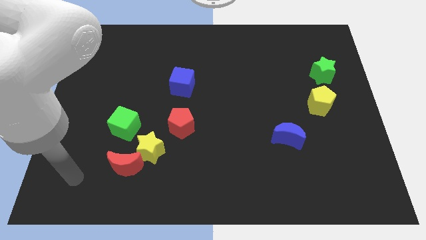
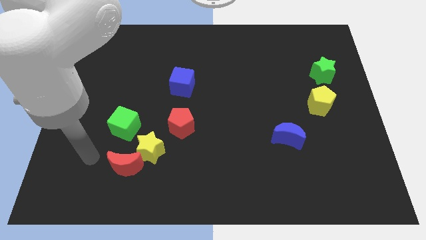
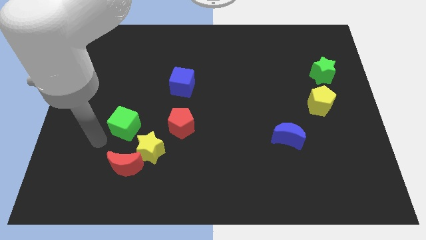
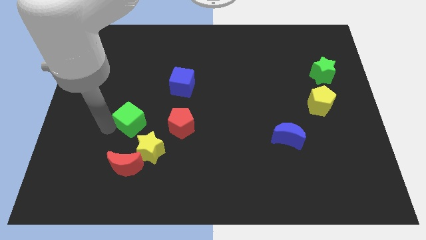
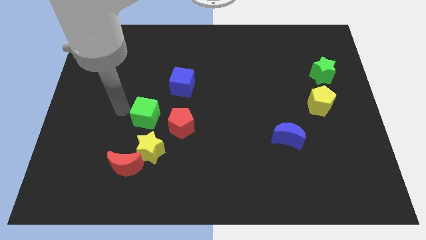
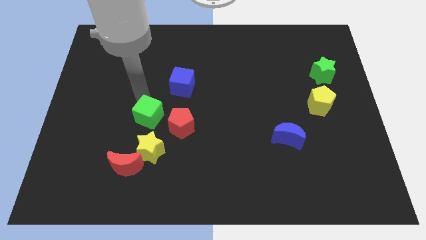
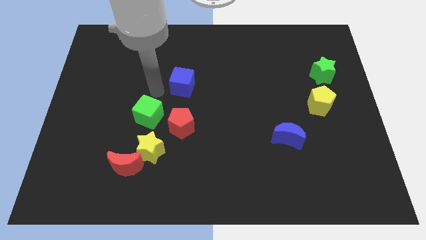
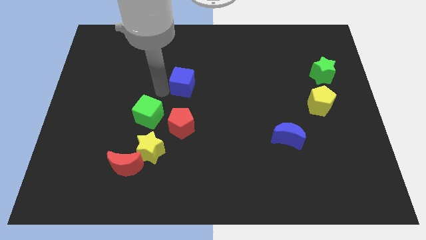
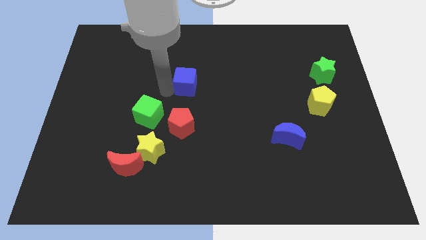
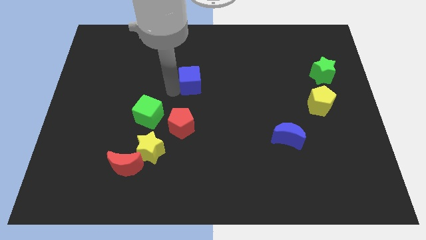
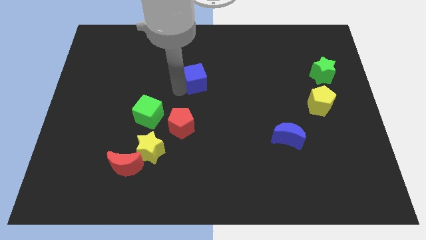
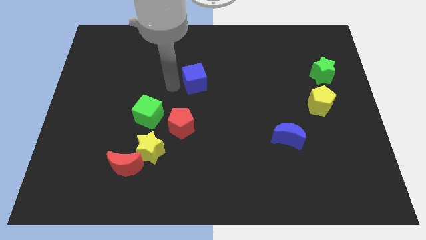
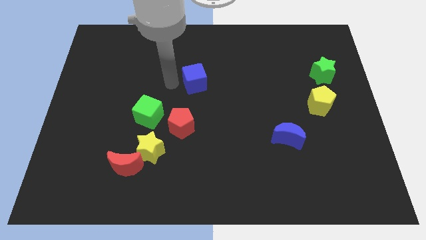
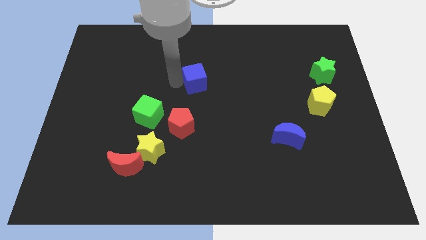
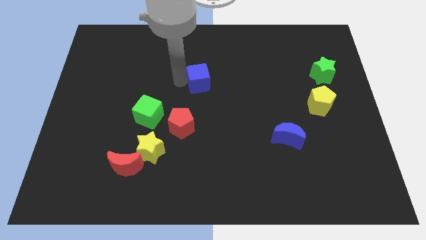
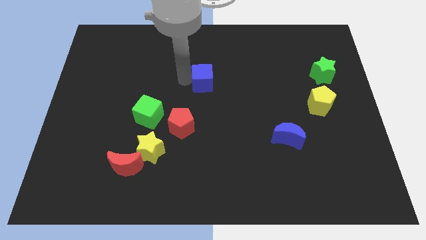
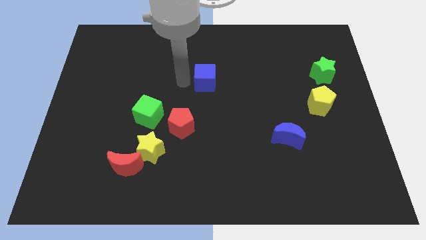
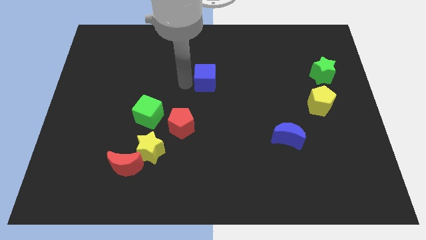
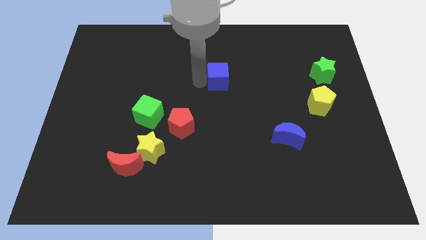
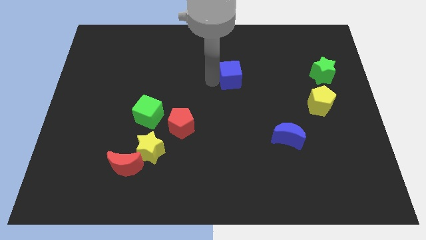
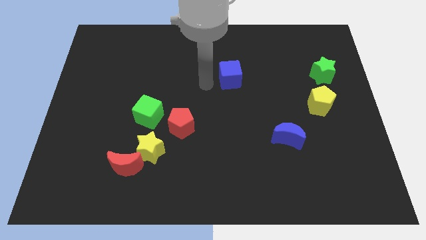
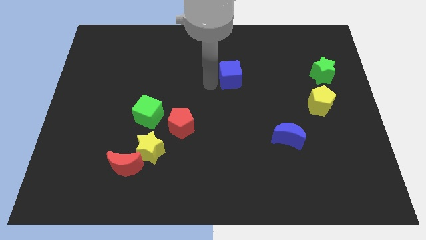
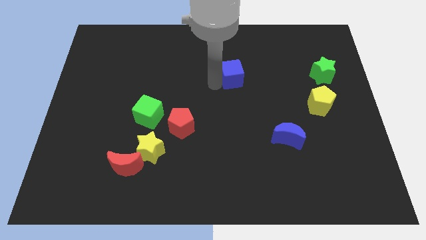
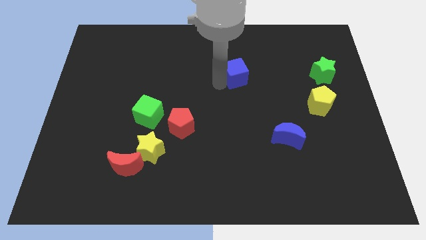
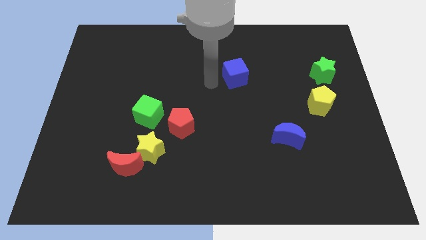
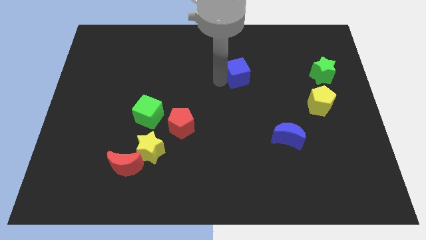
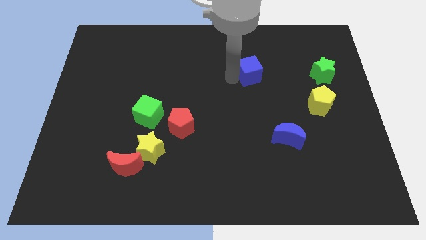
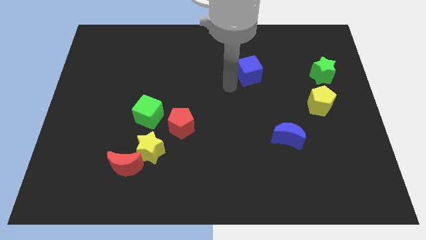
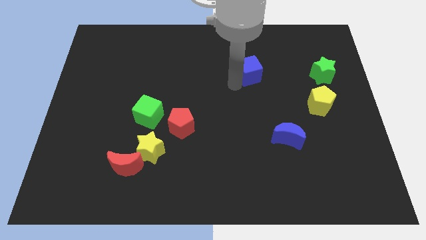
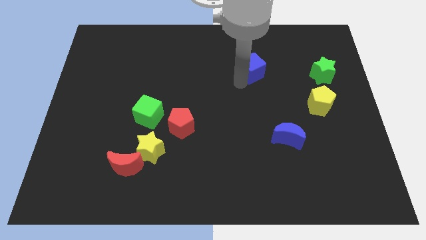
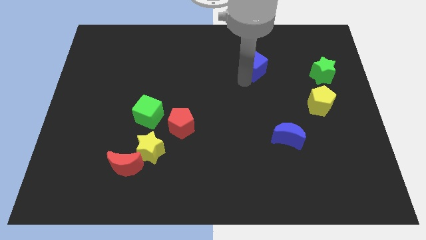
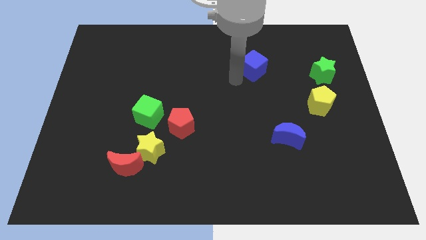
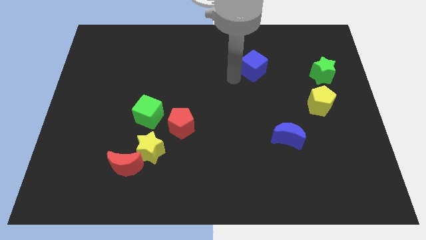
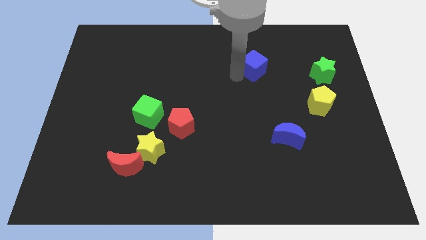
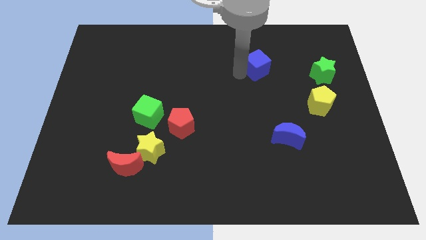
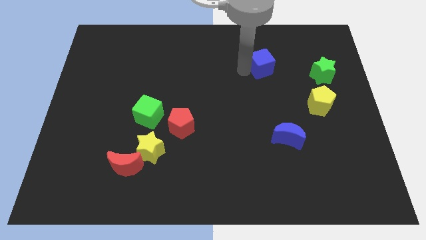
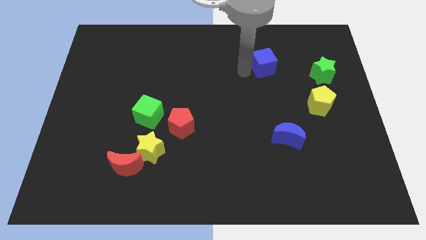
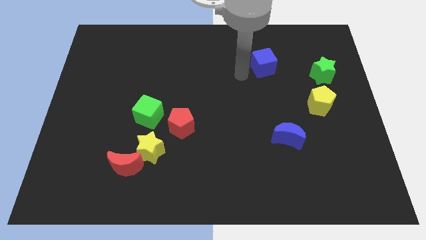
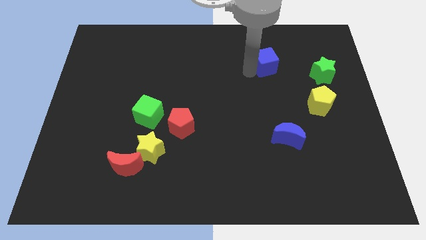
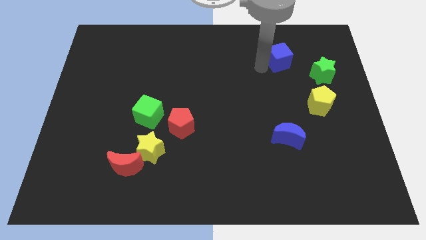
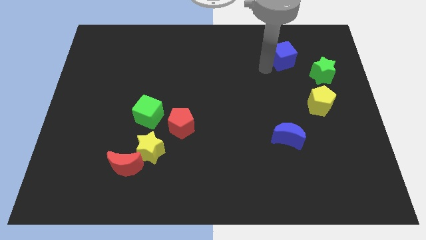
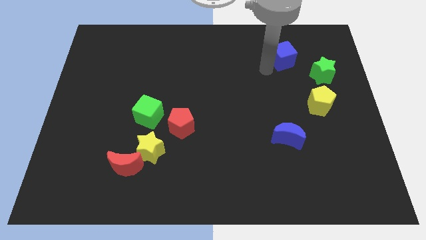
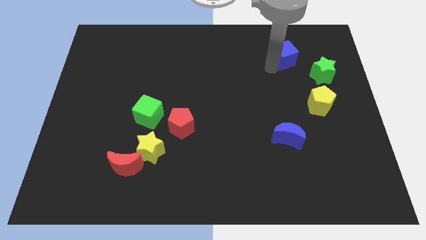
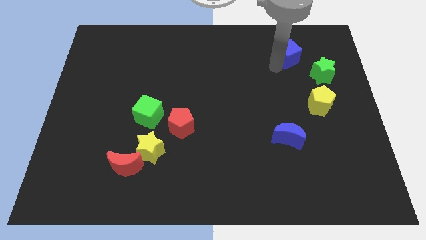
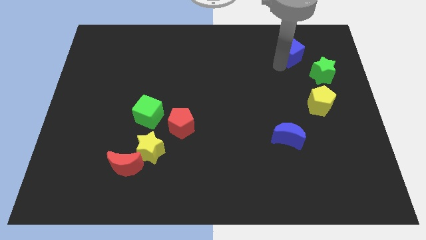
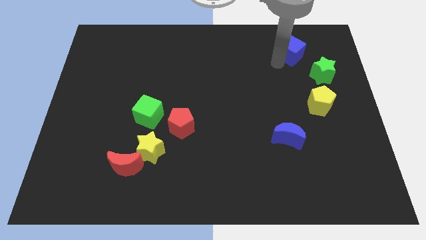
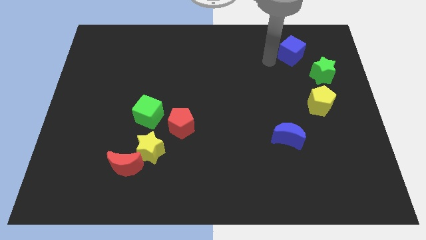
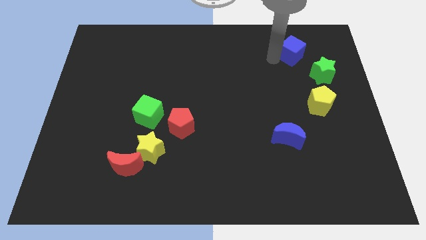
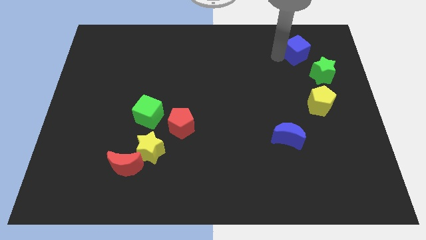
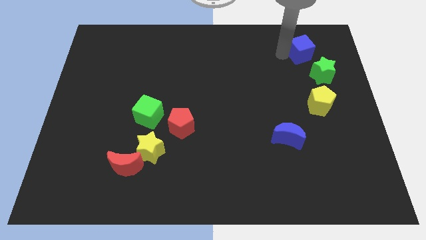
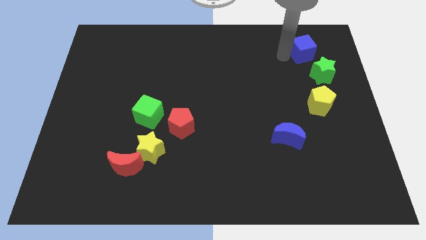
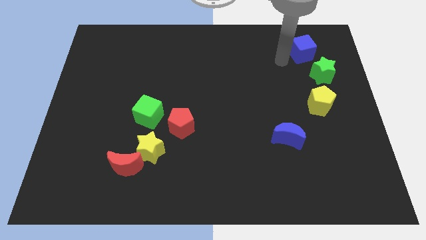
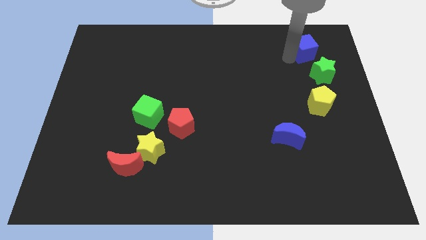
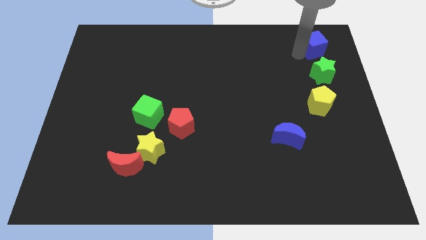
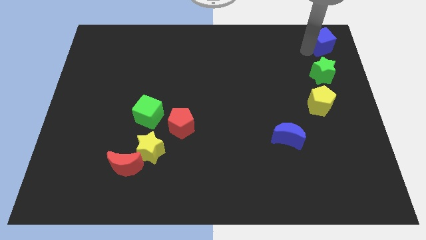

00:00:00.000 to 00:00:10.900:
move the blue cube to the top right corner

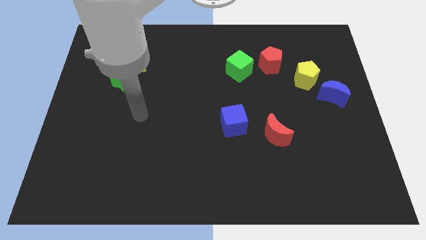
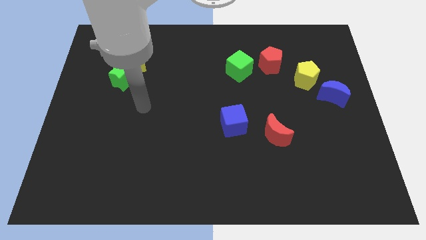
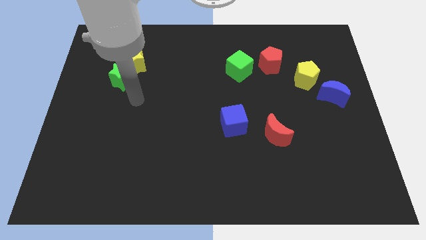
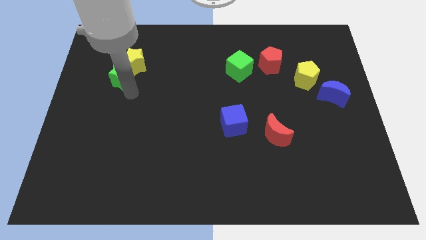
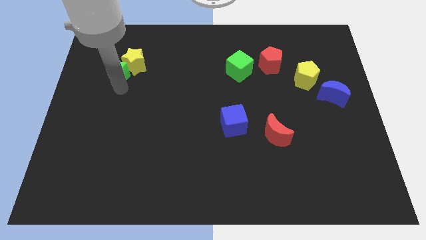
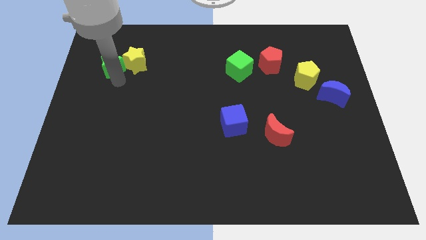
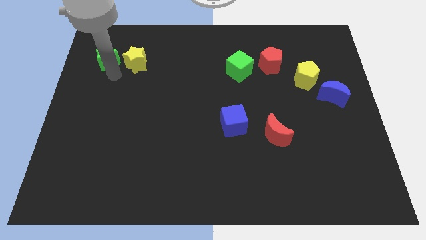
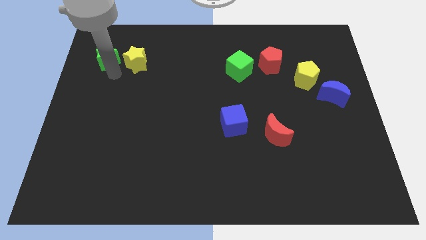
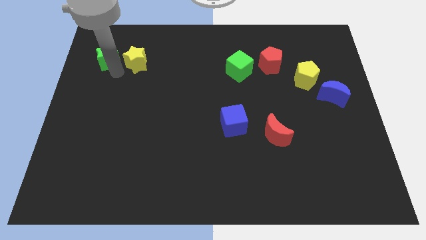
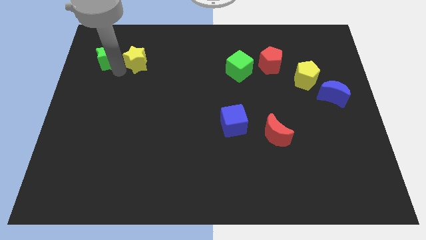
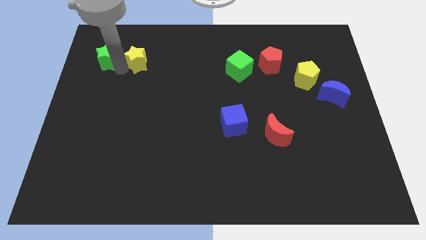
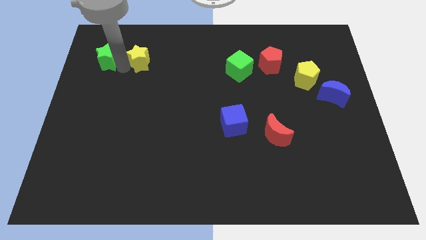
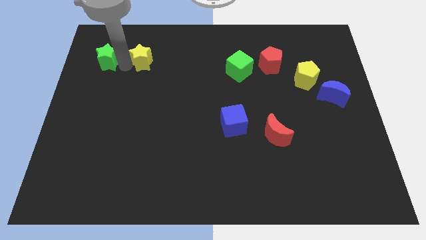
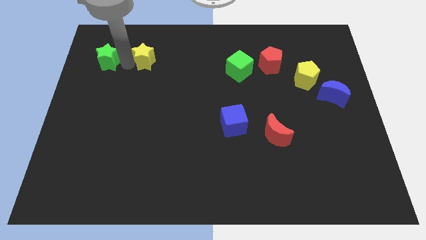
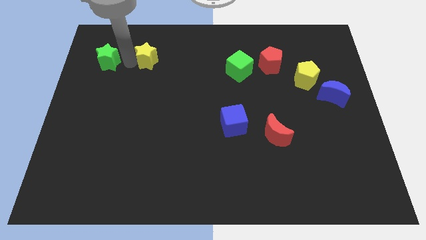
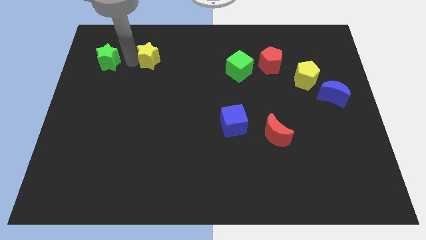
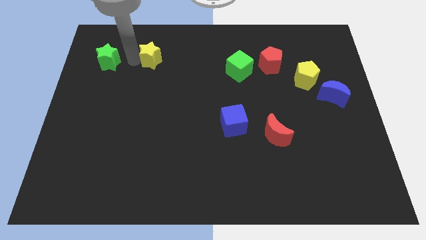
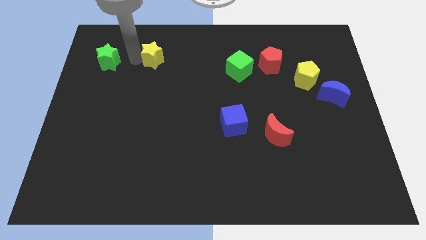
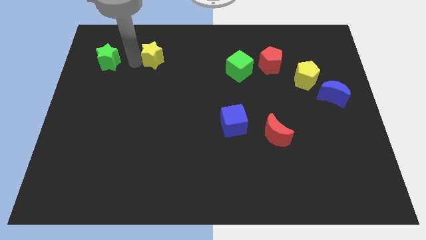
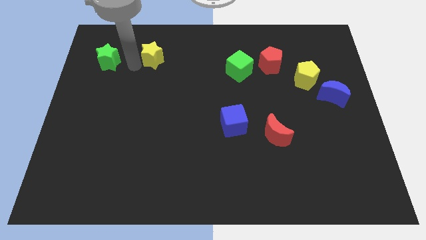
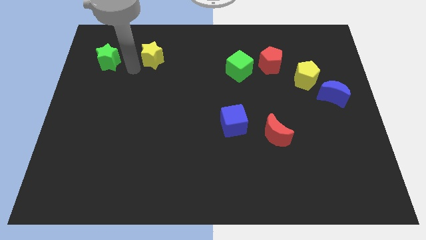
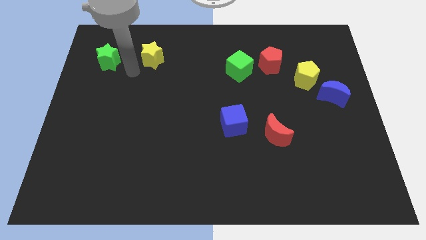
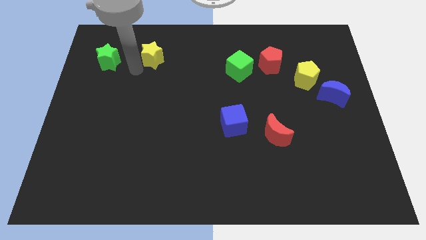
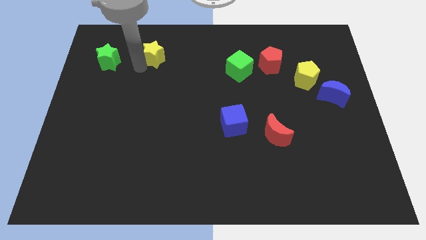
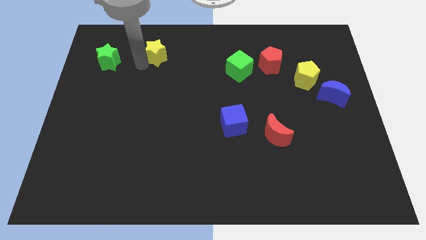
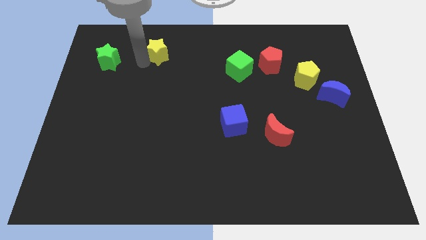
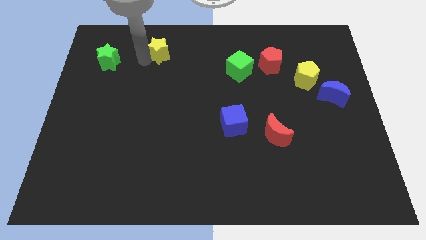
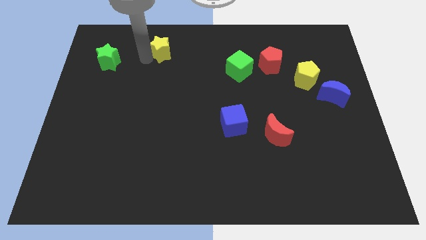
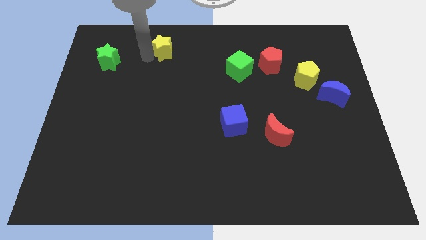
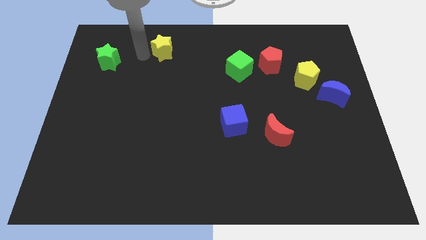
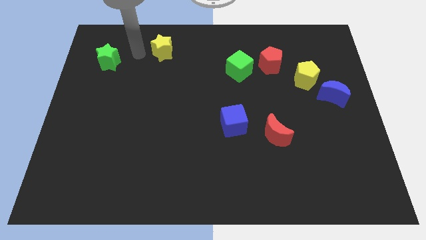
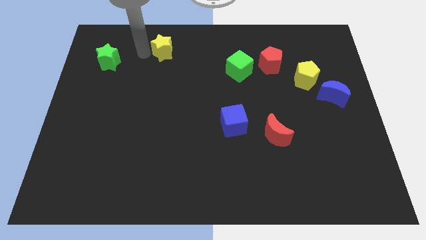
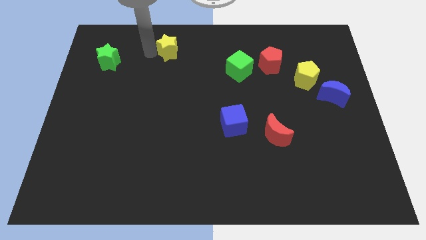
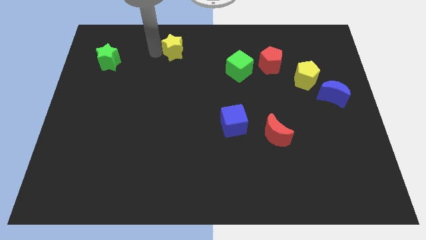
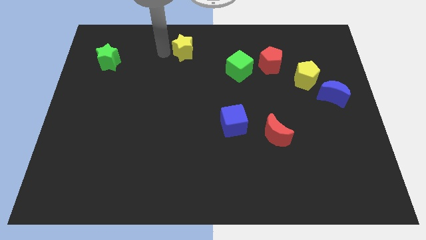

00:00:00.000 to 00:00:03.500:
slide the yellow star to the towards your base
